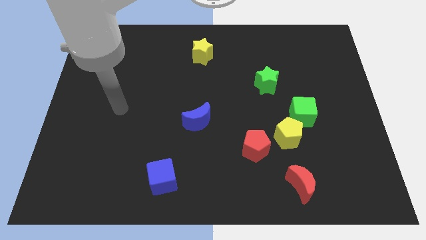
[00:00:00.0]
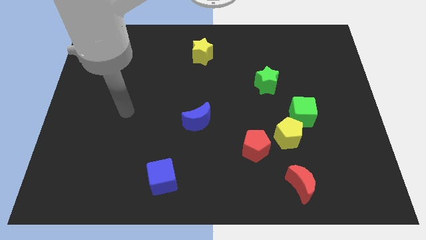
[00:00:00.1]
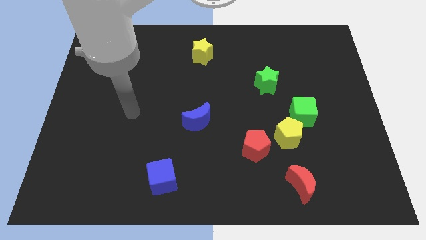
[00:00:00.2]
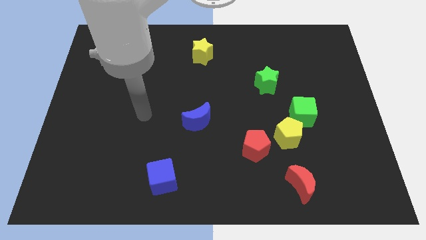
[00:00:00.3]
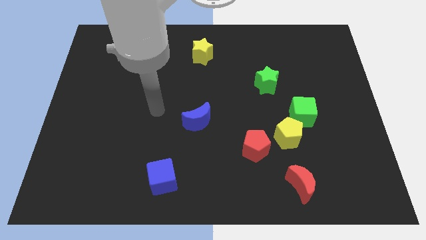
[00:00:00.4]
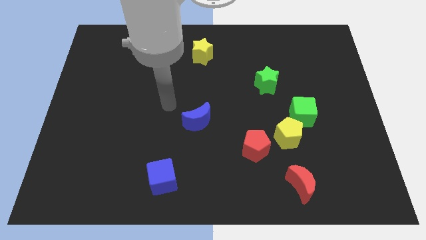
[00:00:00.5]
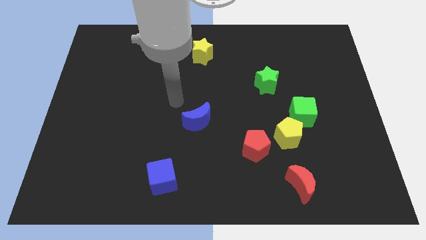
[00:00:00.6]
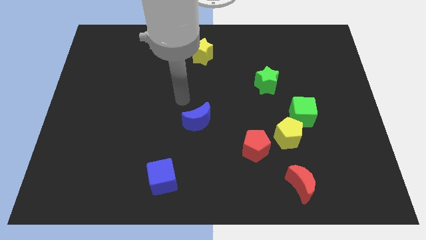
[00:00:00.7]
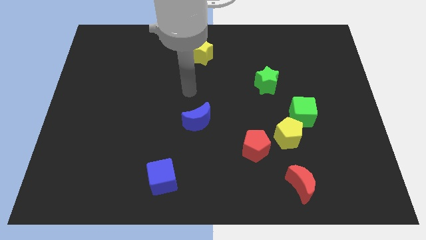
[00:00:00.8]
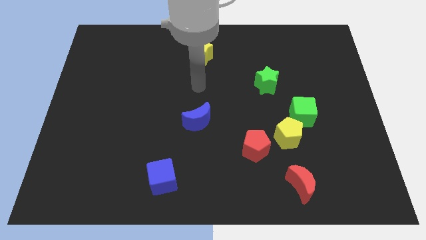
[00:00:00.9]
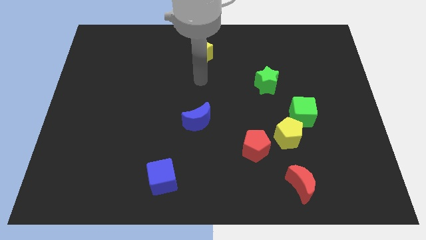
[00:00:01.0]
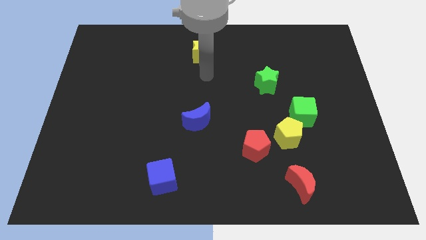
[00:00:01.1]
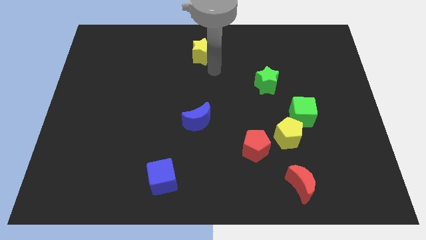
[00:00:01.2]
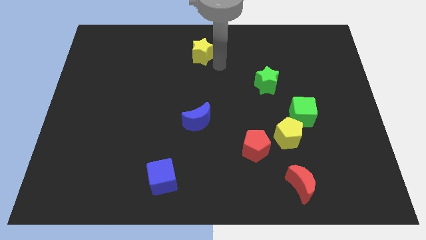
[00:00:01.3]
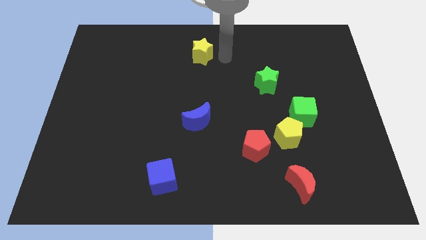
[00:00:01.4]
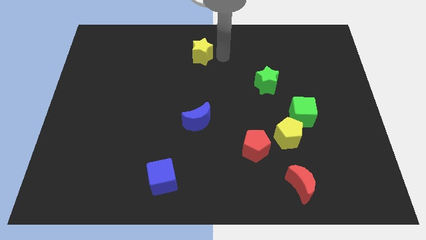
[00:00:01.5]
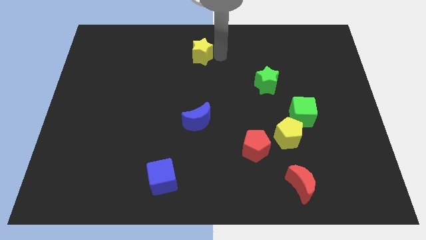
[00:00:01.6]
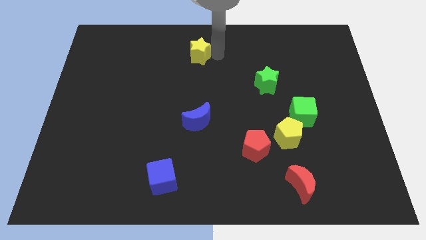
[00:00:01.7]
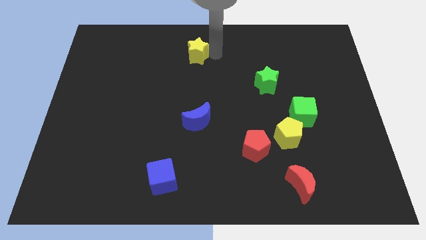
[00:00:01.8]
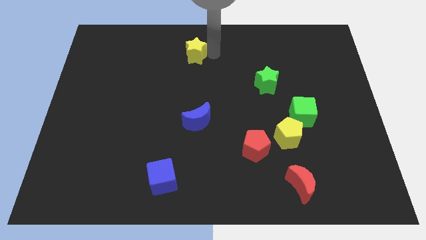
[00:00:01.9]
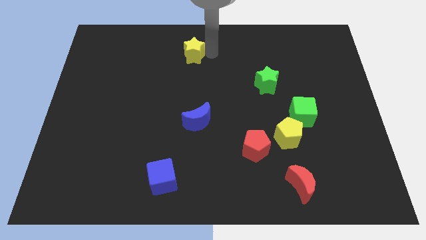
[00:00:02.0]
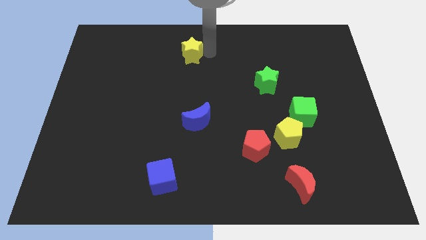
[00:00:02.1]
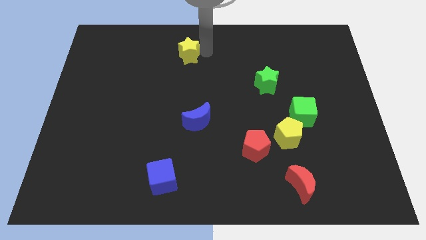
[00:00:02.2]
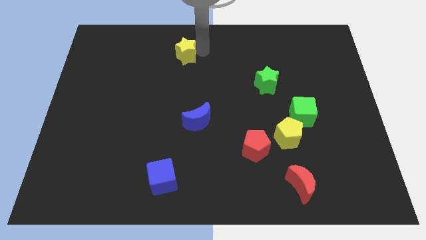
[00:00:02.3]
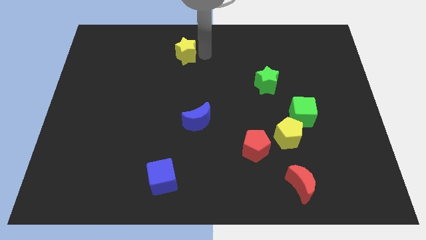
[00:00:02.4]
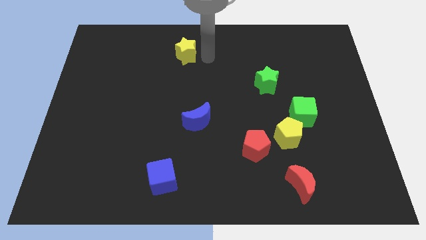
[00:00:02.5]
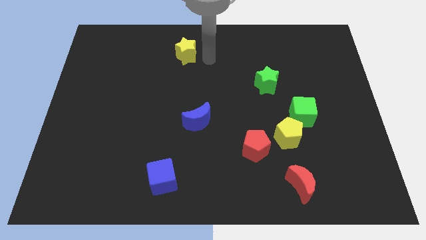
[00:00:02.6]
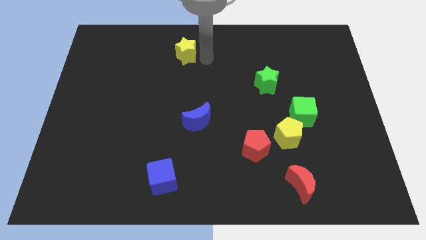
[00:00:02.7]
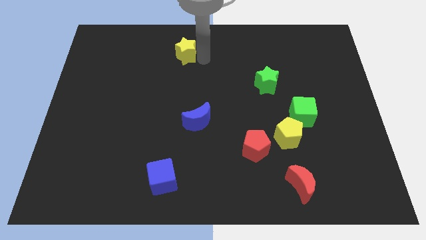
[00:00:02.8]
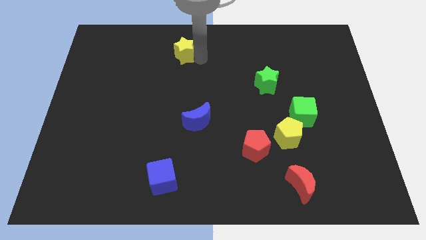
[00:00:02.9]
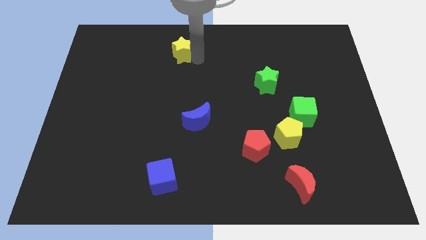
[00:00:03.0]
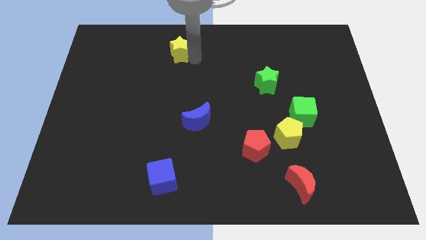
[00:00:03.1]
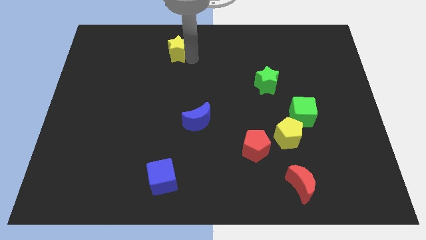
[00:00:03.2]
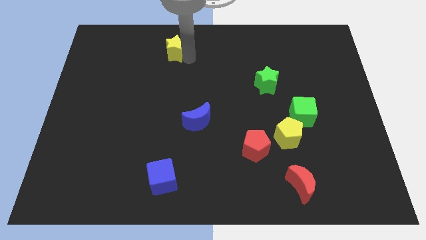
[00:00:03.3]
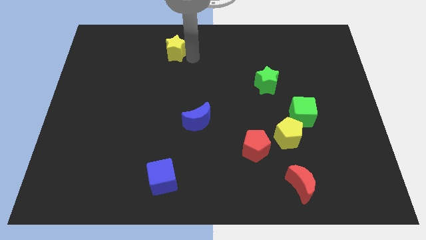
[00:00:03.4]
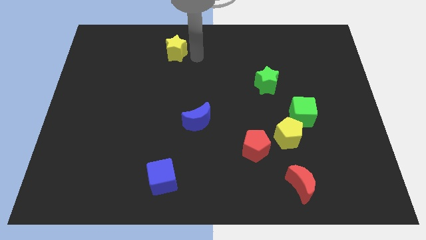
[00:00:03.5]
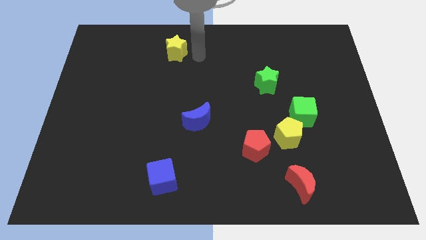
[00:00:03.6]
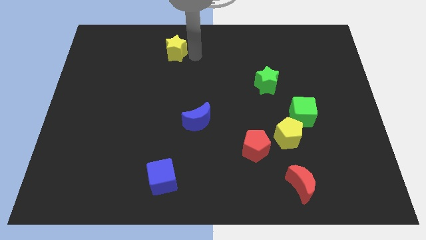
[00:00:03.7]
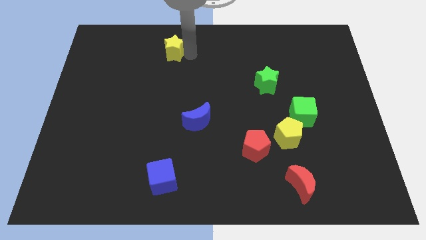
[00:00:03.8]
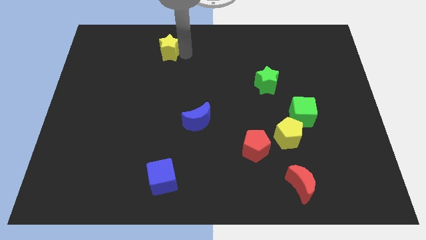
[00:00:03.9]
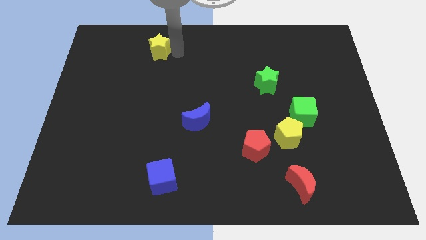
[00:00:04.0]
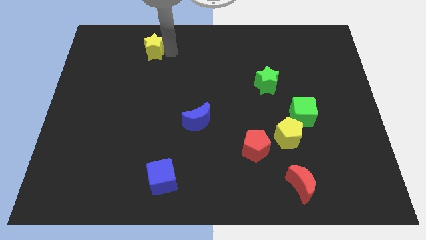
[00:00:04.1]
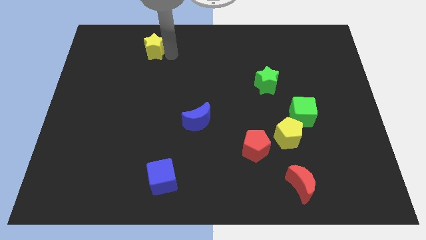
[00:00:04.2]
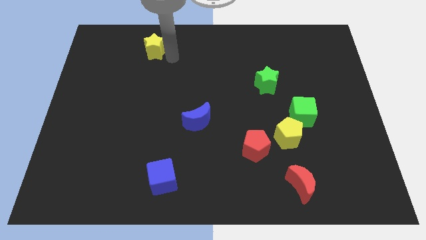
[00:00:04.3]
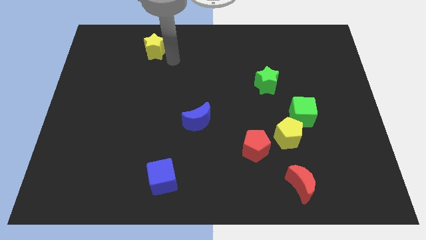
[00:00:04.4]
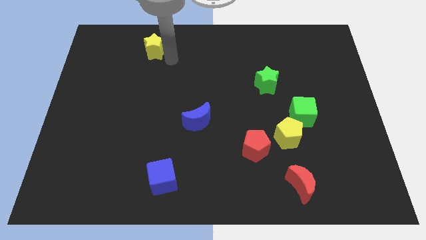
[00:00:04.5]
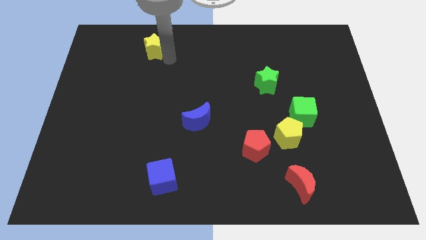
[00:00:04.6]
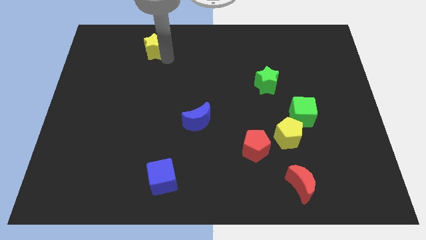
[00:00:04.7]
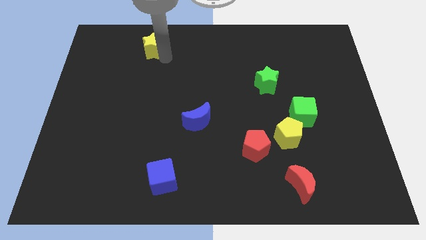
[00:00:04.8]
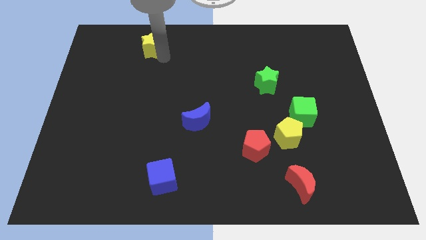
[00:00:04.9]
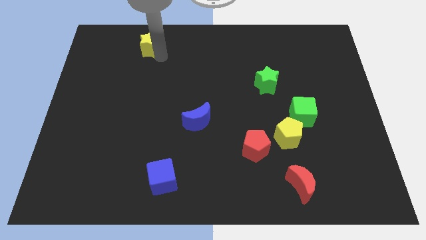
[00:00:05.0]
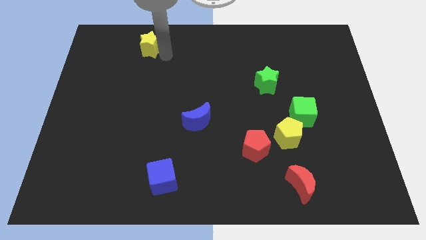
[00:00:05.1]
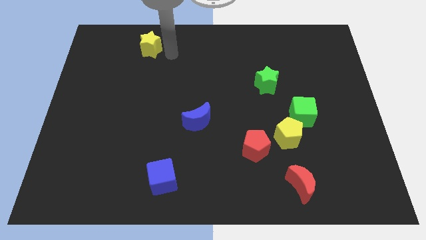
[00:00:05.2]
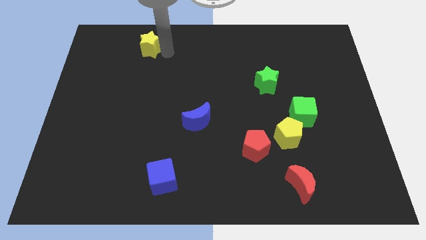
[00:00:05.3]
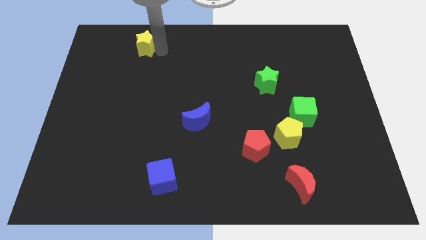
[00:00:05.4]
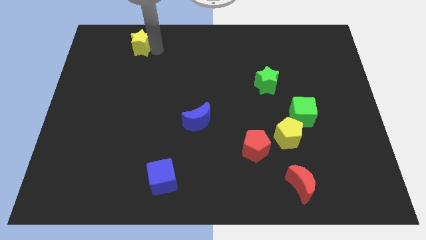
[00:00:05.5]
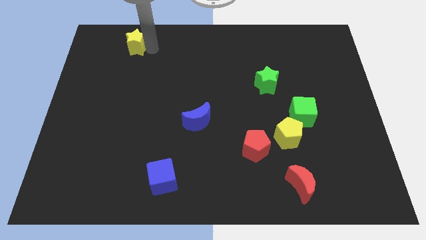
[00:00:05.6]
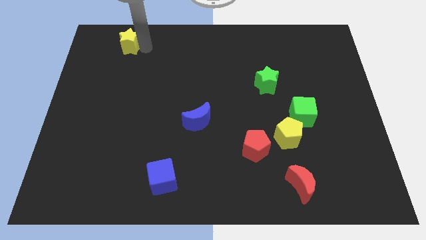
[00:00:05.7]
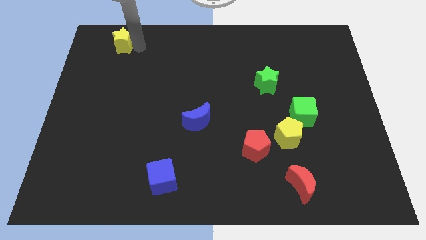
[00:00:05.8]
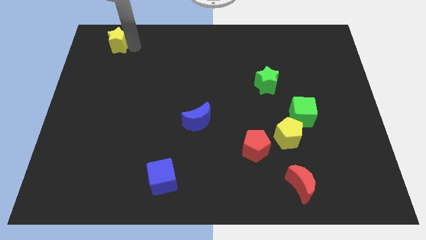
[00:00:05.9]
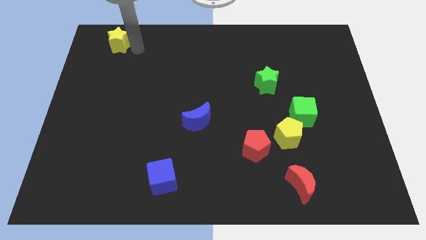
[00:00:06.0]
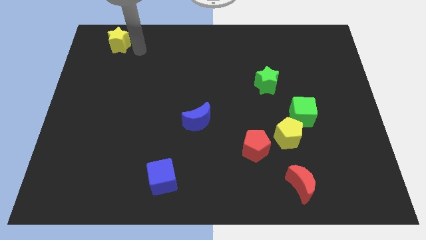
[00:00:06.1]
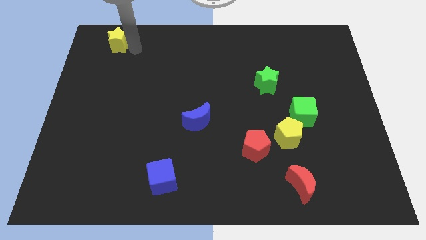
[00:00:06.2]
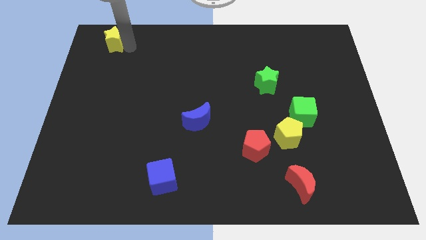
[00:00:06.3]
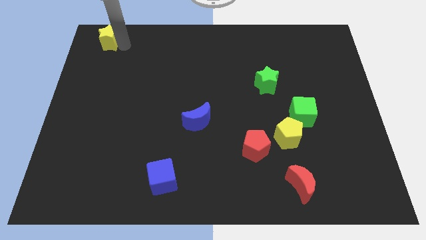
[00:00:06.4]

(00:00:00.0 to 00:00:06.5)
put the yellow star to the top left of the board

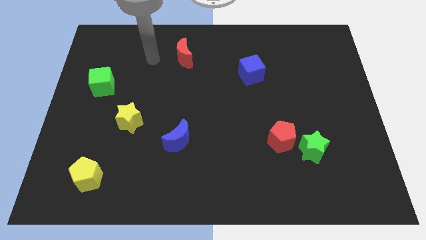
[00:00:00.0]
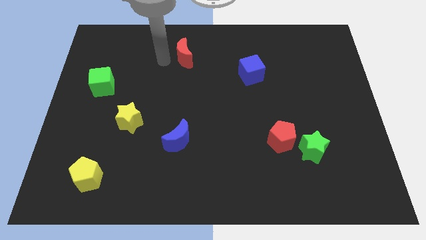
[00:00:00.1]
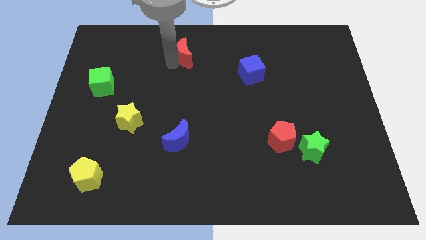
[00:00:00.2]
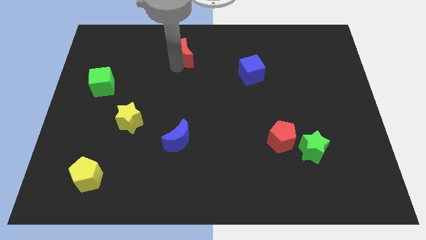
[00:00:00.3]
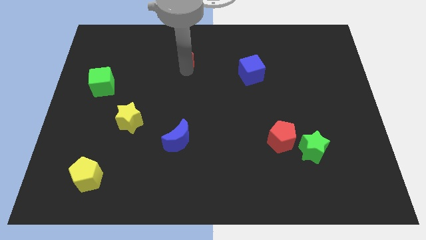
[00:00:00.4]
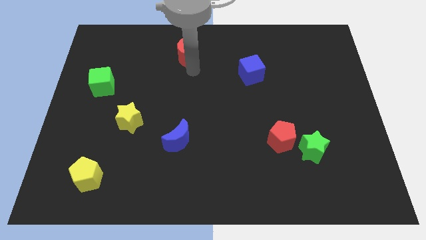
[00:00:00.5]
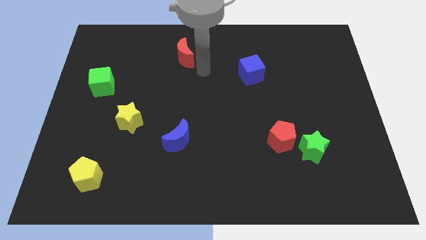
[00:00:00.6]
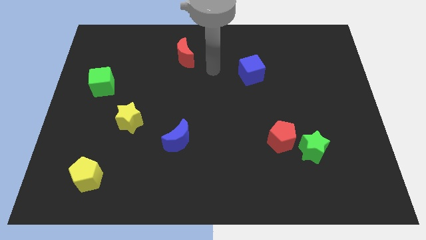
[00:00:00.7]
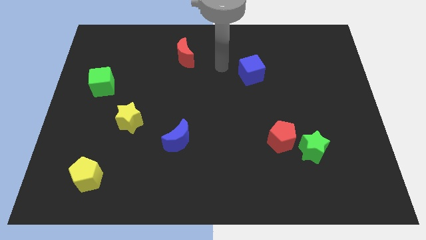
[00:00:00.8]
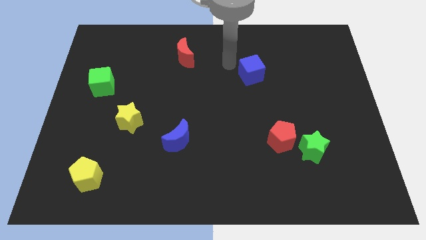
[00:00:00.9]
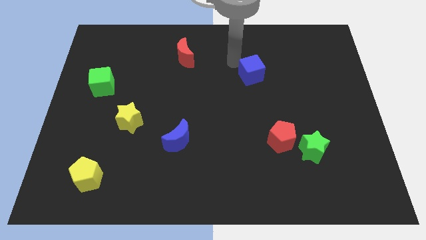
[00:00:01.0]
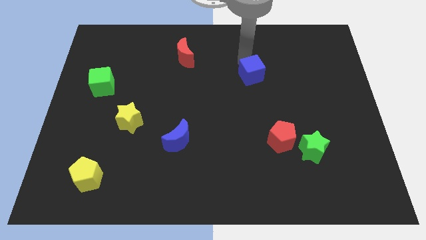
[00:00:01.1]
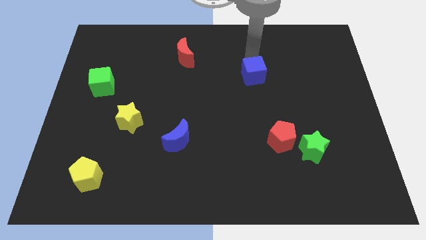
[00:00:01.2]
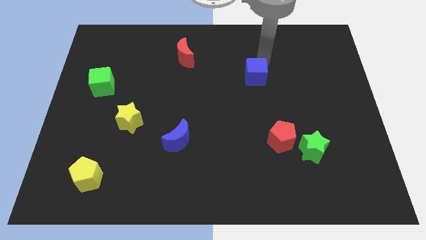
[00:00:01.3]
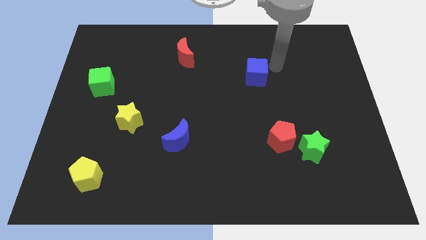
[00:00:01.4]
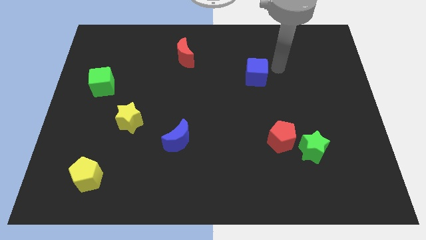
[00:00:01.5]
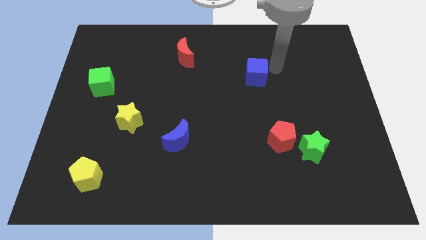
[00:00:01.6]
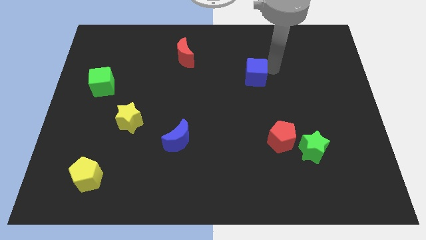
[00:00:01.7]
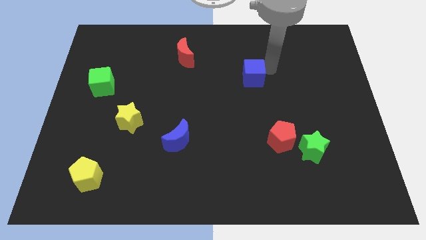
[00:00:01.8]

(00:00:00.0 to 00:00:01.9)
push the blue cube to the center
